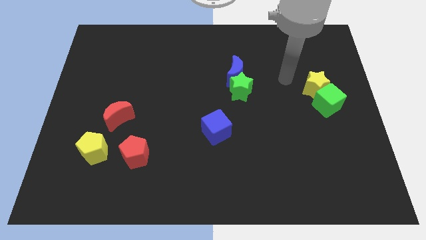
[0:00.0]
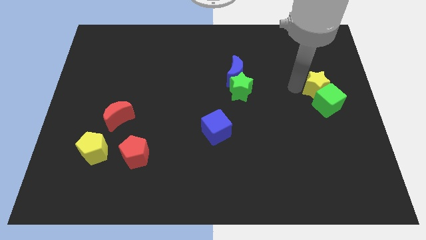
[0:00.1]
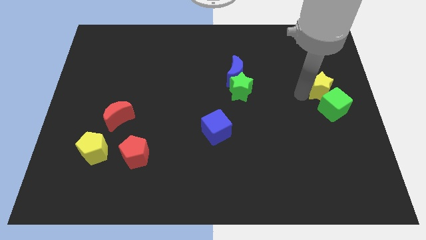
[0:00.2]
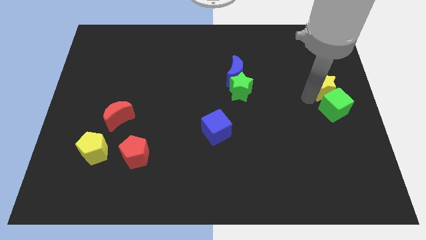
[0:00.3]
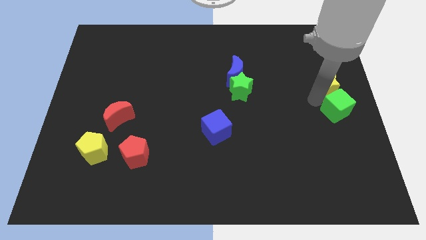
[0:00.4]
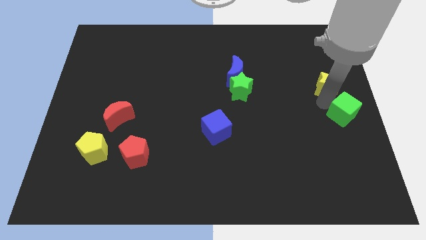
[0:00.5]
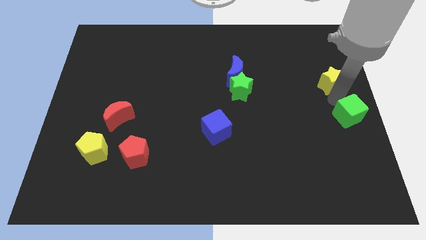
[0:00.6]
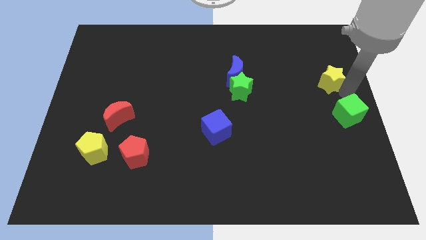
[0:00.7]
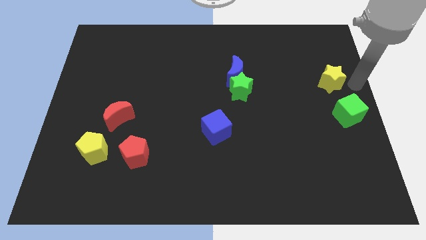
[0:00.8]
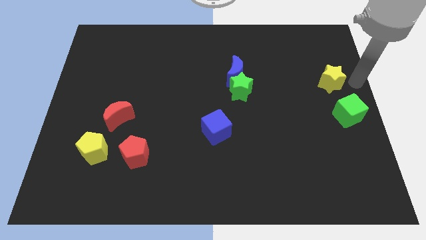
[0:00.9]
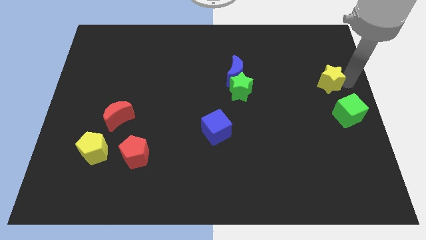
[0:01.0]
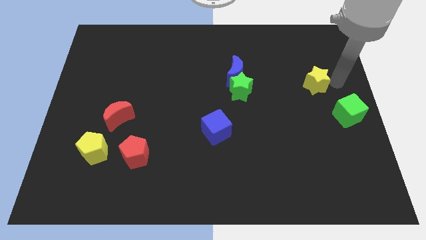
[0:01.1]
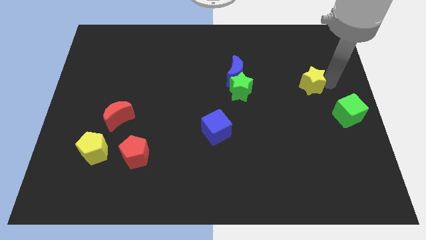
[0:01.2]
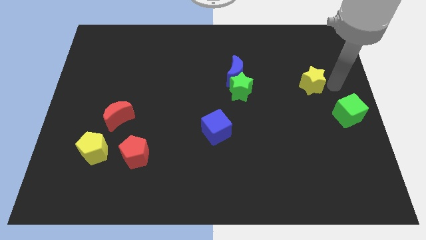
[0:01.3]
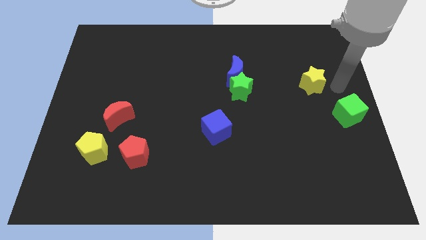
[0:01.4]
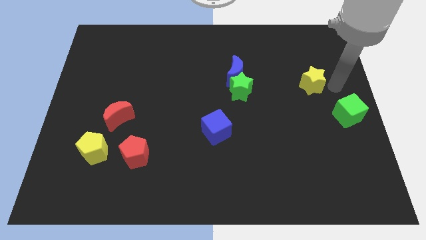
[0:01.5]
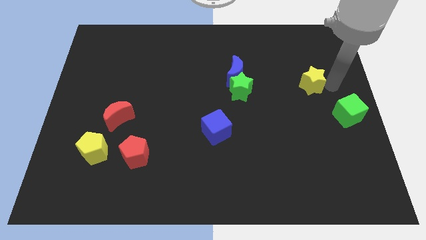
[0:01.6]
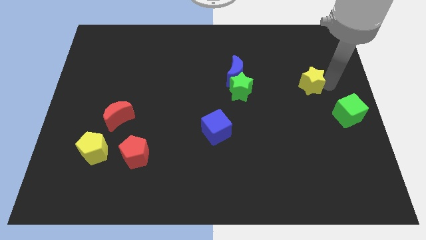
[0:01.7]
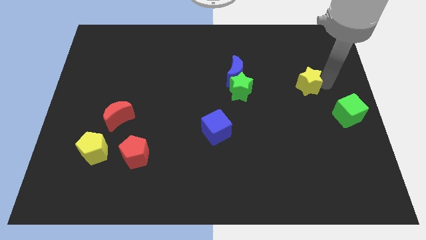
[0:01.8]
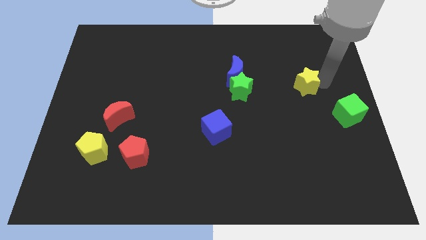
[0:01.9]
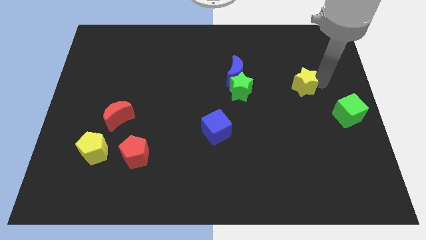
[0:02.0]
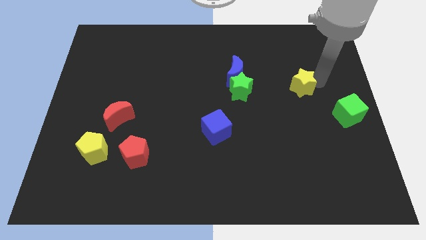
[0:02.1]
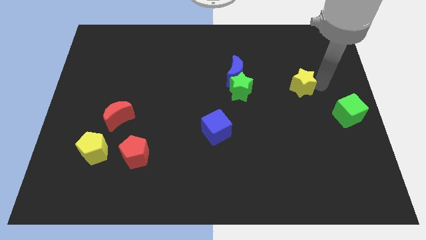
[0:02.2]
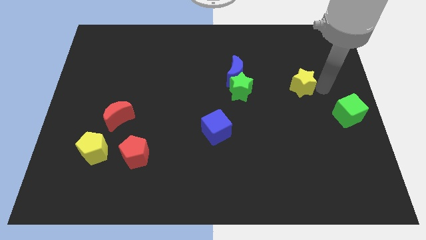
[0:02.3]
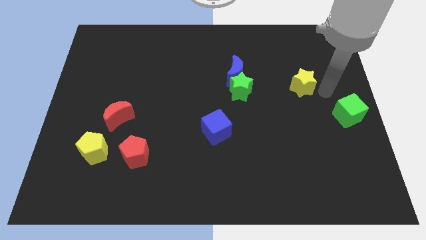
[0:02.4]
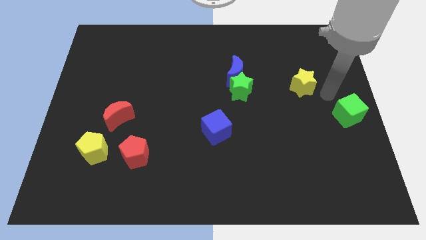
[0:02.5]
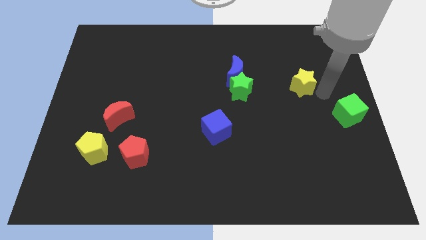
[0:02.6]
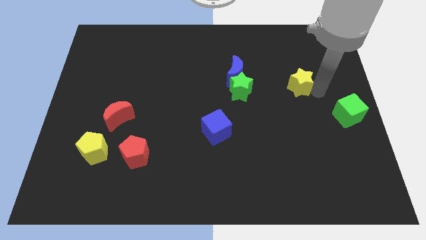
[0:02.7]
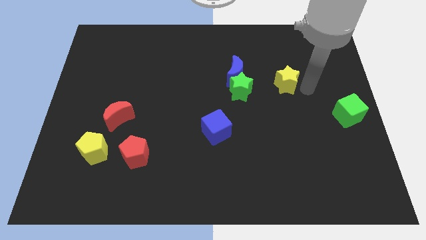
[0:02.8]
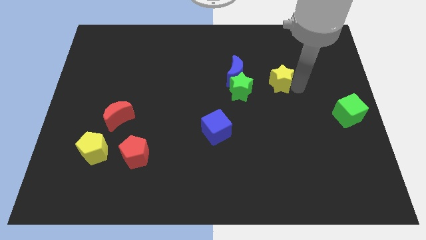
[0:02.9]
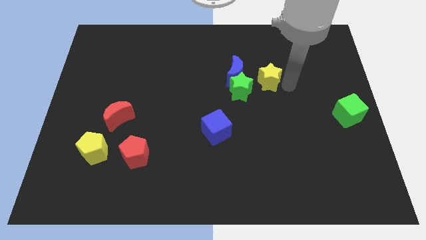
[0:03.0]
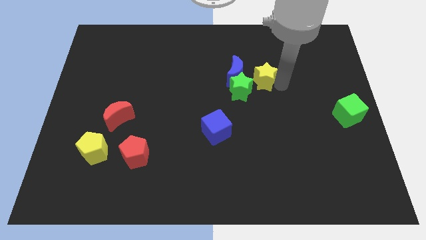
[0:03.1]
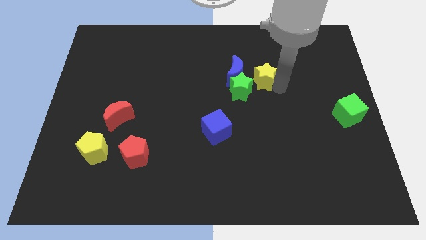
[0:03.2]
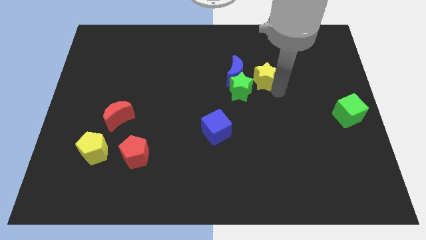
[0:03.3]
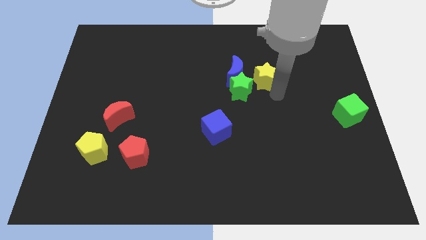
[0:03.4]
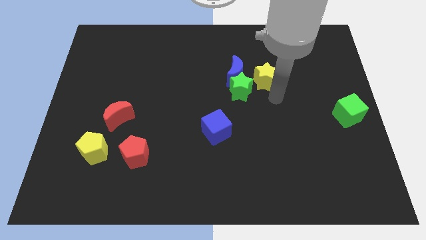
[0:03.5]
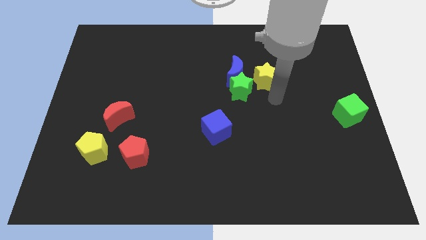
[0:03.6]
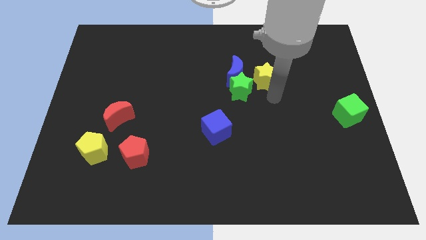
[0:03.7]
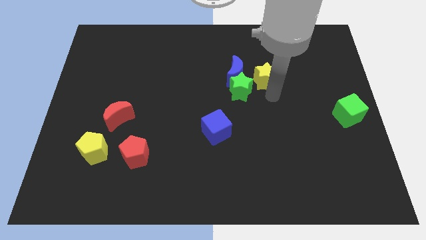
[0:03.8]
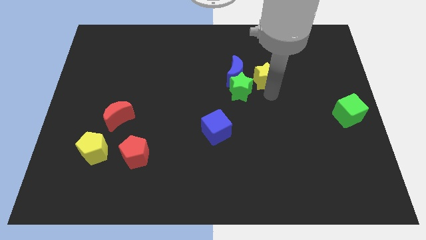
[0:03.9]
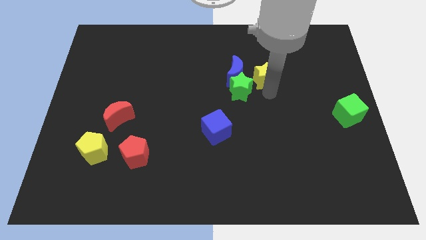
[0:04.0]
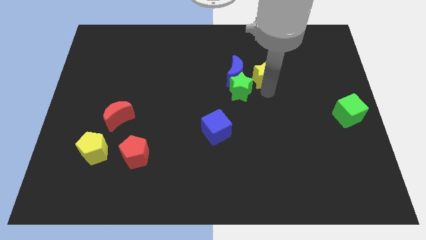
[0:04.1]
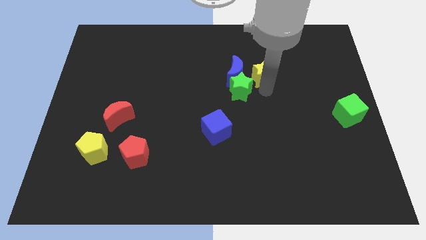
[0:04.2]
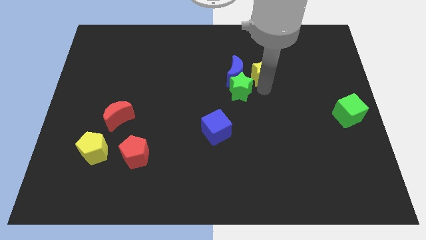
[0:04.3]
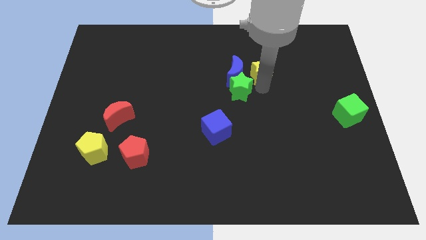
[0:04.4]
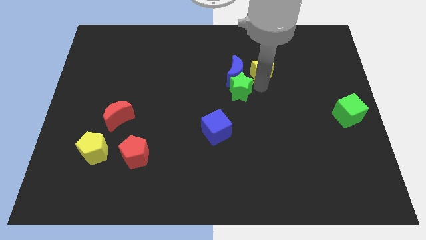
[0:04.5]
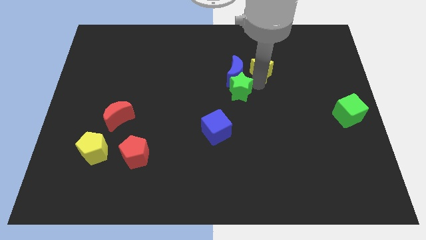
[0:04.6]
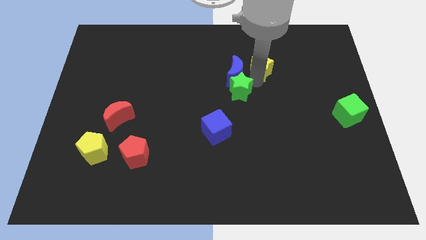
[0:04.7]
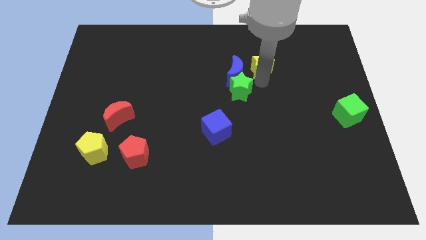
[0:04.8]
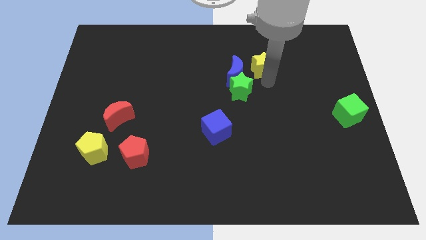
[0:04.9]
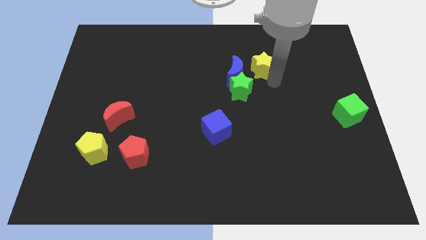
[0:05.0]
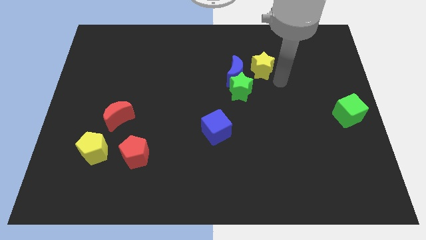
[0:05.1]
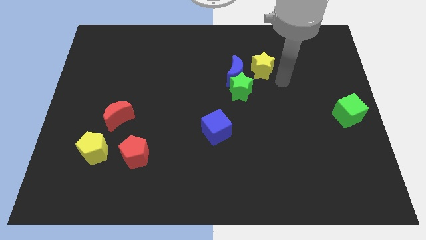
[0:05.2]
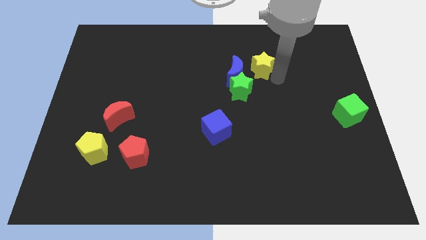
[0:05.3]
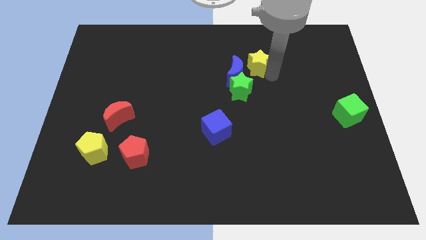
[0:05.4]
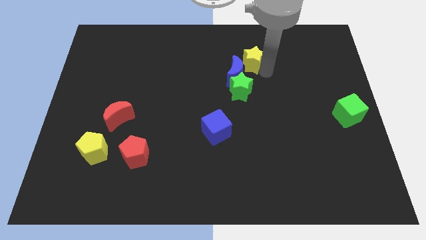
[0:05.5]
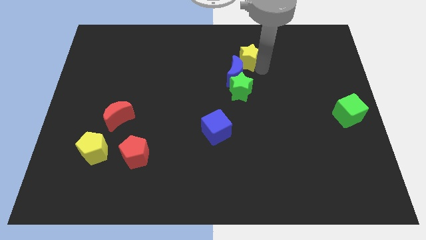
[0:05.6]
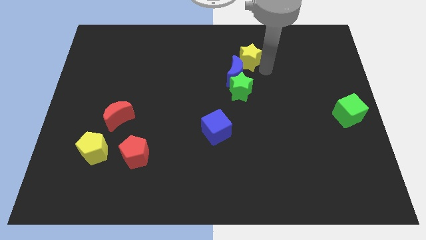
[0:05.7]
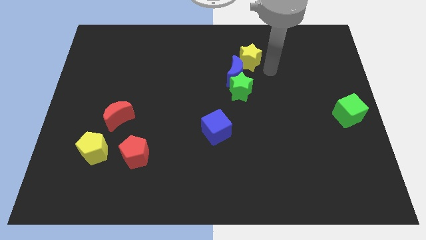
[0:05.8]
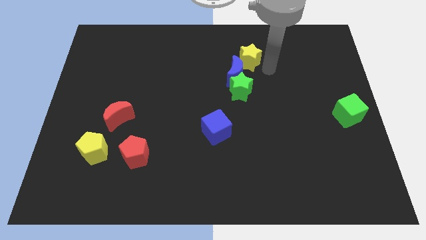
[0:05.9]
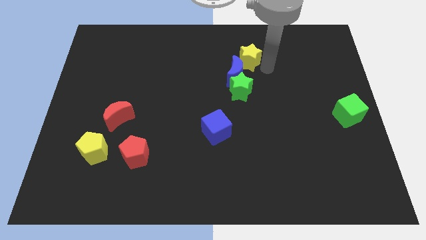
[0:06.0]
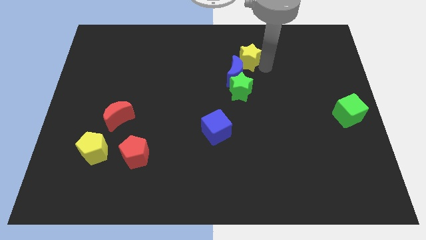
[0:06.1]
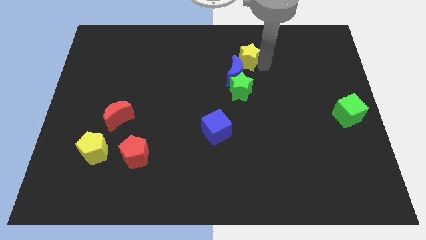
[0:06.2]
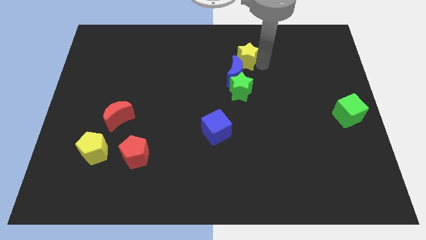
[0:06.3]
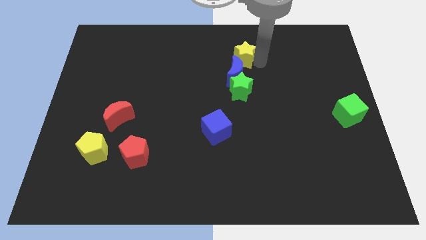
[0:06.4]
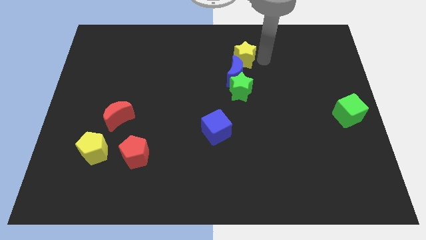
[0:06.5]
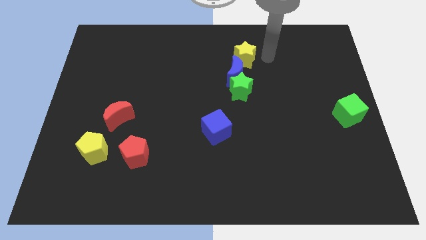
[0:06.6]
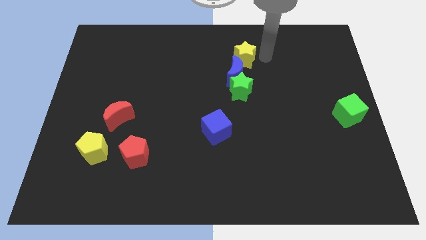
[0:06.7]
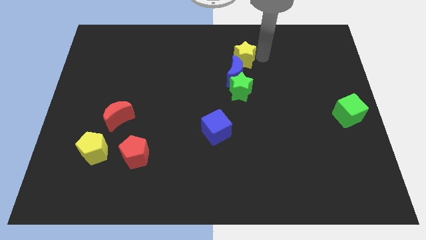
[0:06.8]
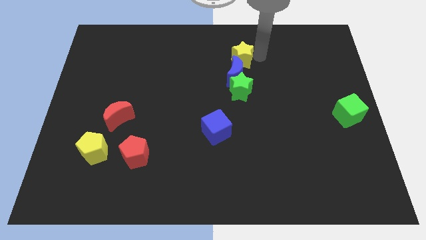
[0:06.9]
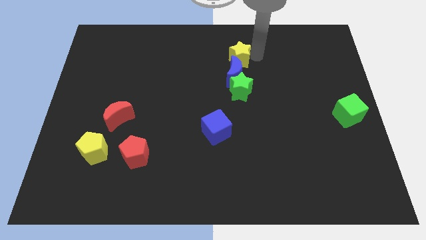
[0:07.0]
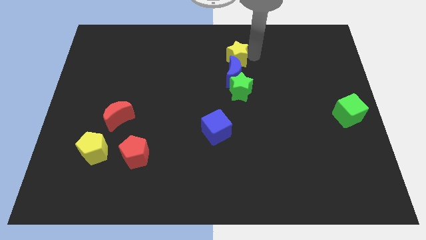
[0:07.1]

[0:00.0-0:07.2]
put the yellow star to the top left side of the blue moon

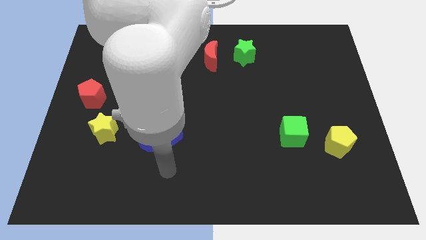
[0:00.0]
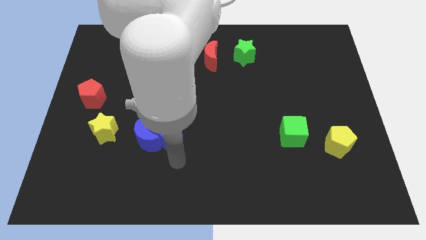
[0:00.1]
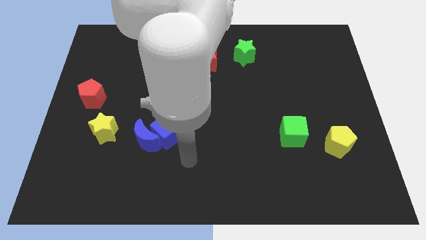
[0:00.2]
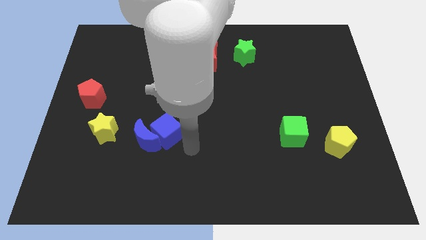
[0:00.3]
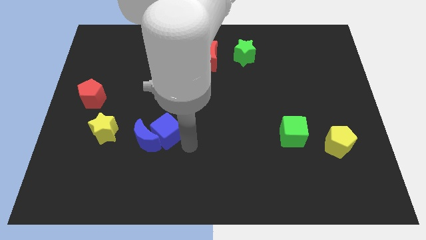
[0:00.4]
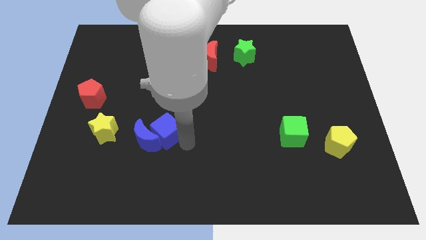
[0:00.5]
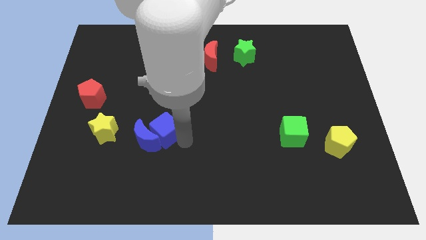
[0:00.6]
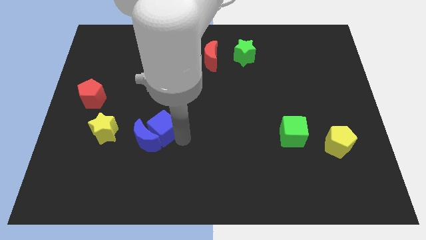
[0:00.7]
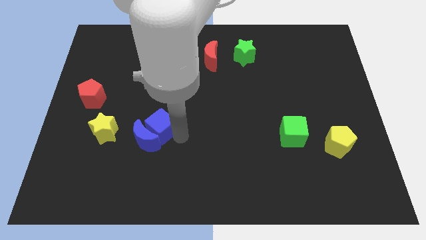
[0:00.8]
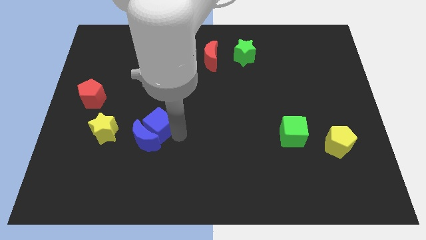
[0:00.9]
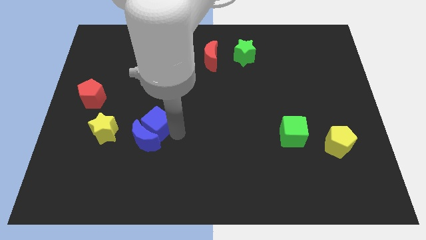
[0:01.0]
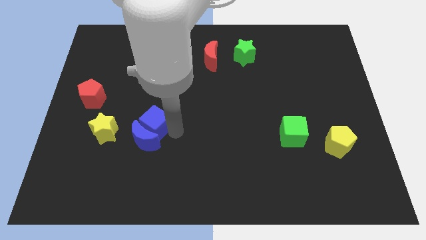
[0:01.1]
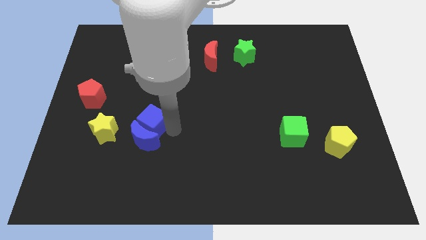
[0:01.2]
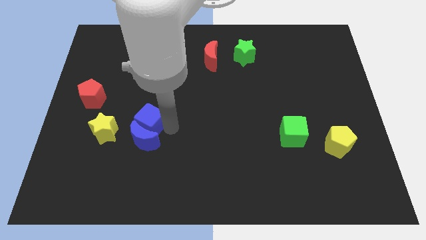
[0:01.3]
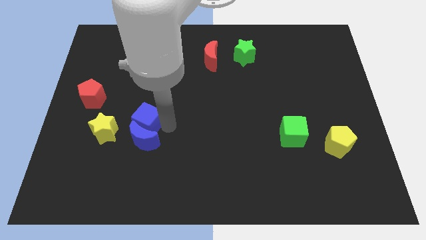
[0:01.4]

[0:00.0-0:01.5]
push the blue cube to the top right of the yellow star
